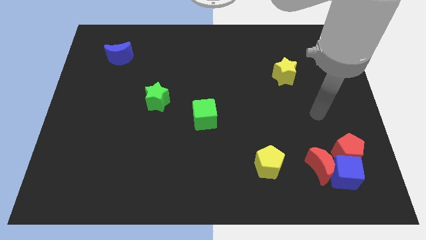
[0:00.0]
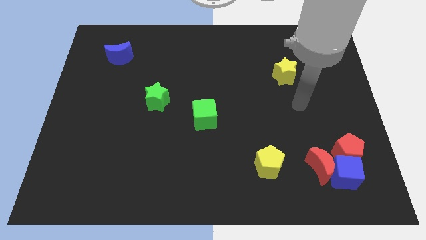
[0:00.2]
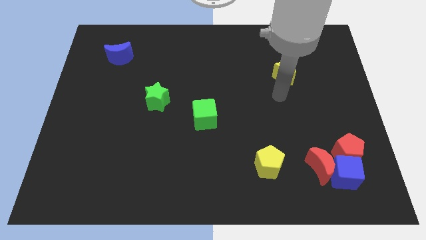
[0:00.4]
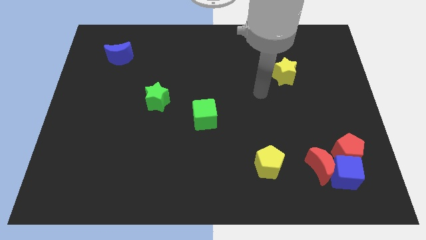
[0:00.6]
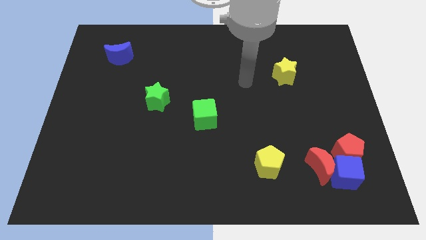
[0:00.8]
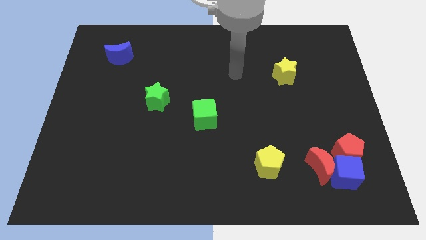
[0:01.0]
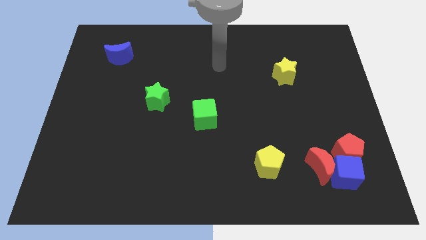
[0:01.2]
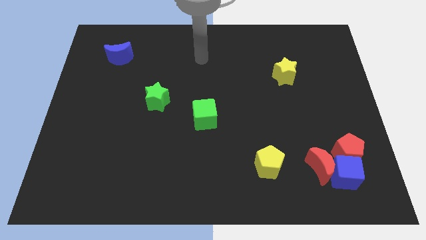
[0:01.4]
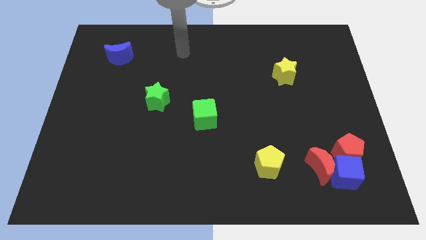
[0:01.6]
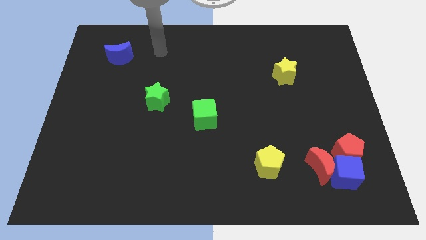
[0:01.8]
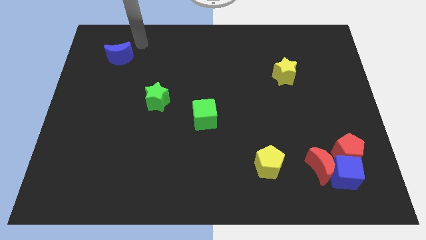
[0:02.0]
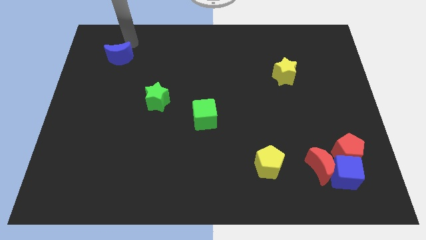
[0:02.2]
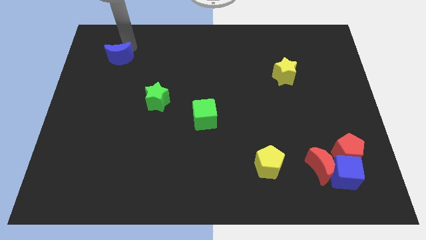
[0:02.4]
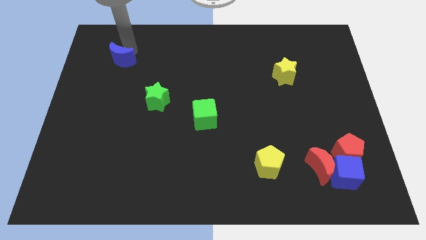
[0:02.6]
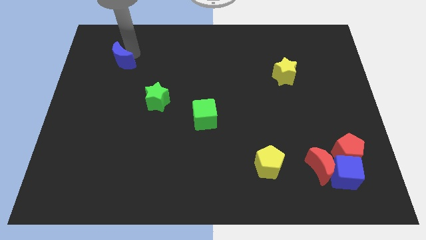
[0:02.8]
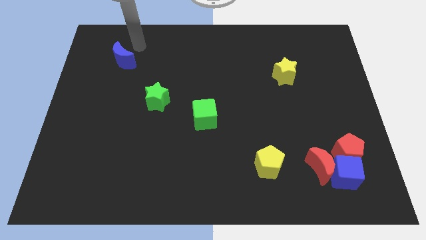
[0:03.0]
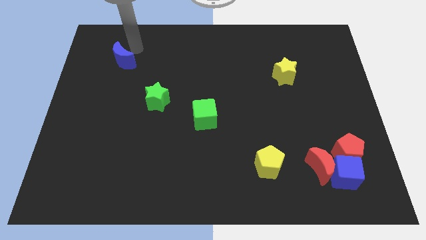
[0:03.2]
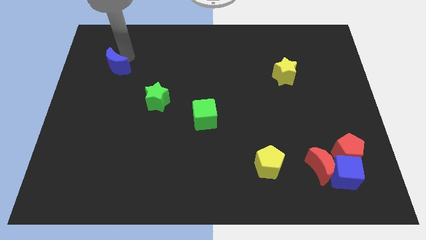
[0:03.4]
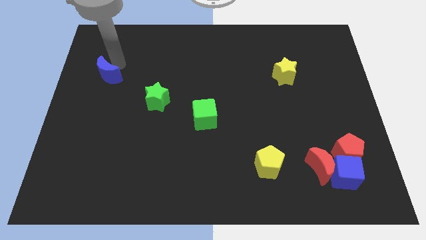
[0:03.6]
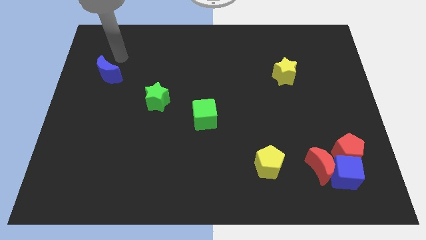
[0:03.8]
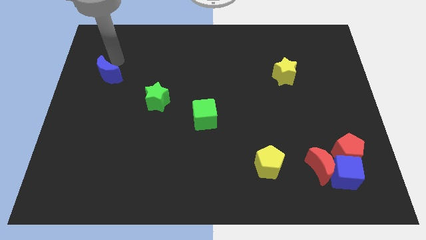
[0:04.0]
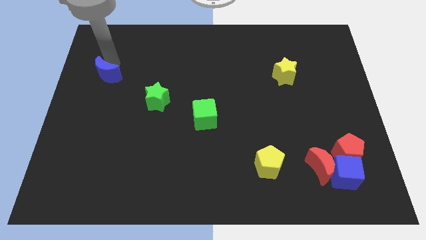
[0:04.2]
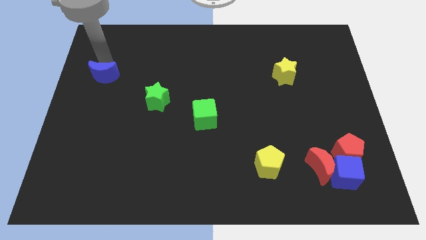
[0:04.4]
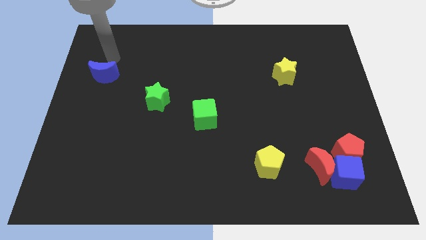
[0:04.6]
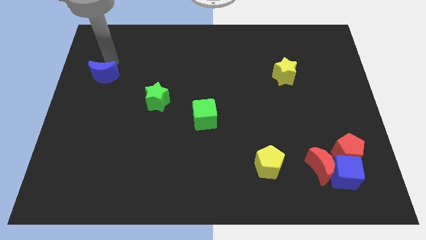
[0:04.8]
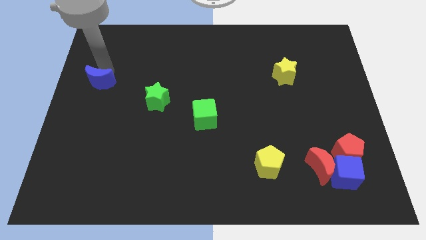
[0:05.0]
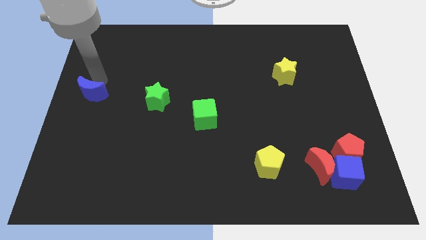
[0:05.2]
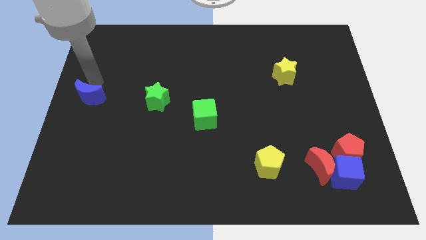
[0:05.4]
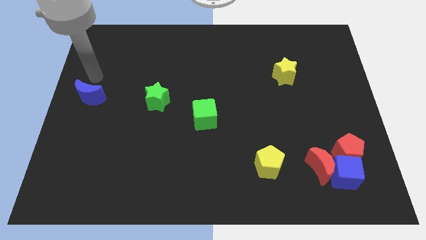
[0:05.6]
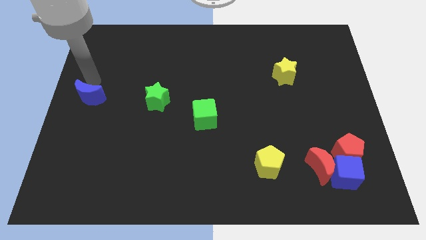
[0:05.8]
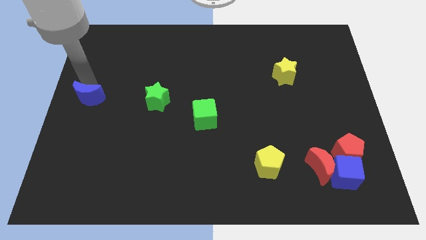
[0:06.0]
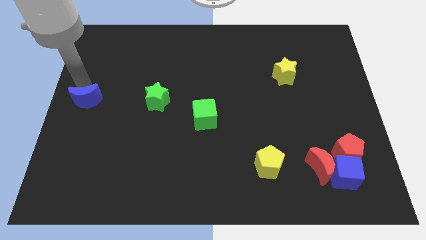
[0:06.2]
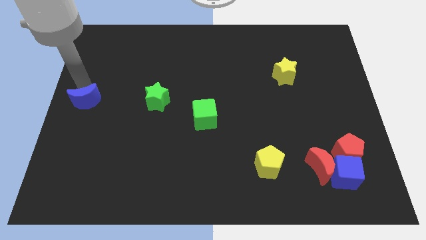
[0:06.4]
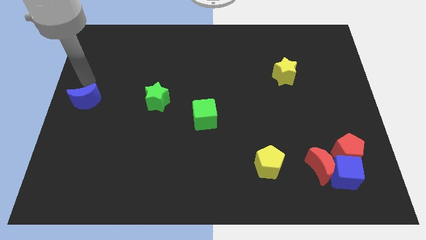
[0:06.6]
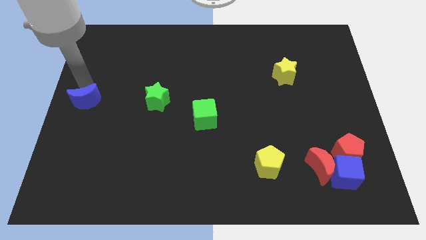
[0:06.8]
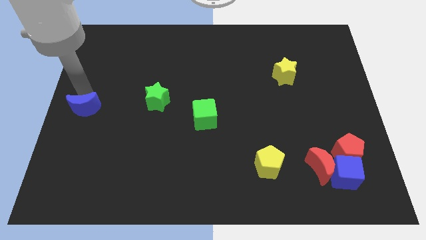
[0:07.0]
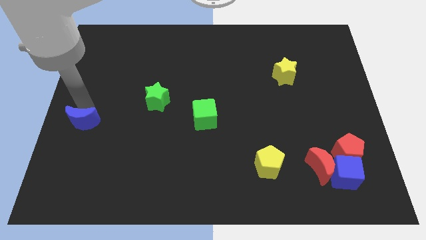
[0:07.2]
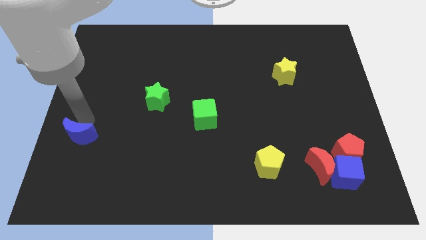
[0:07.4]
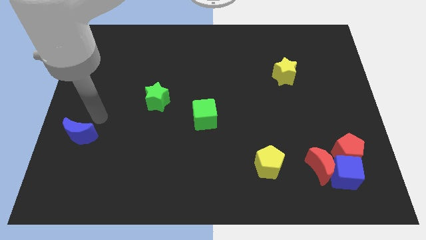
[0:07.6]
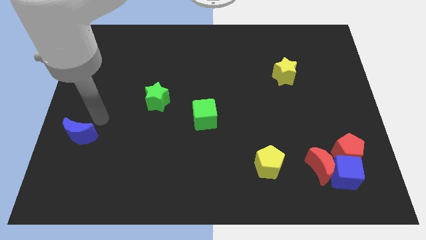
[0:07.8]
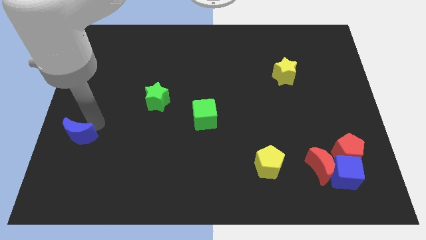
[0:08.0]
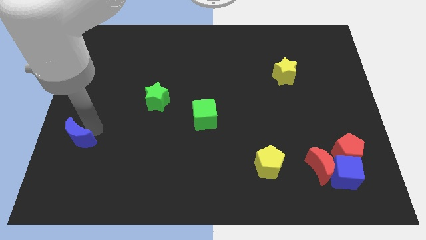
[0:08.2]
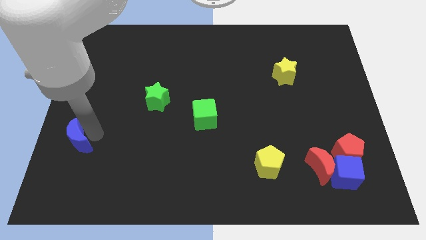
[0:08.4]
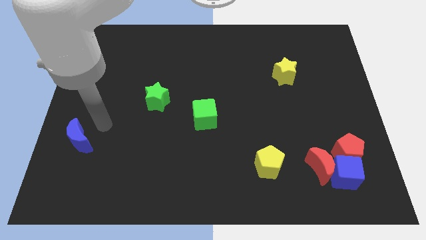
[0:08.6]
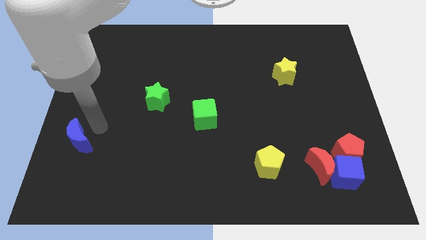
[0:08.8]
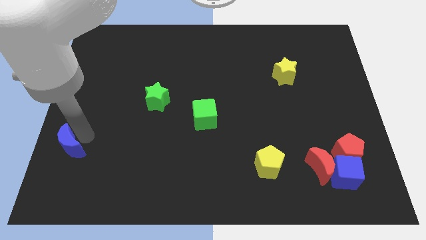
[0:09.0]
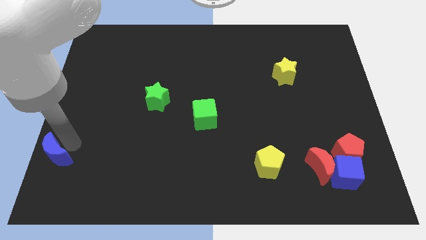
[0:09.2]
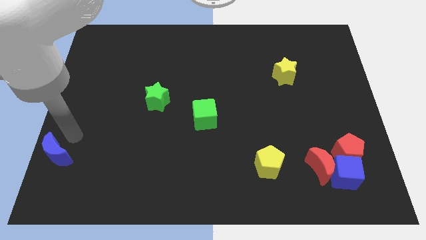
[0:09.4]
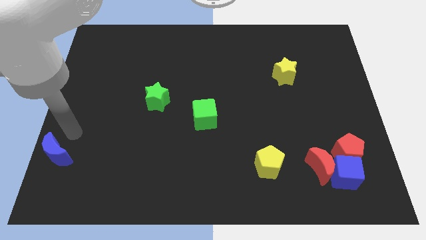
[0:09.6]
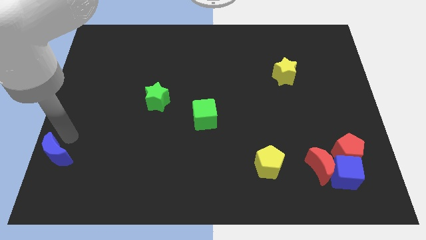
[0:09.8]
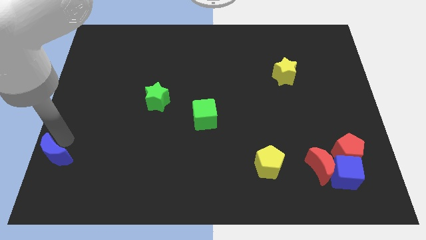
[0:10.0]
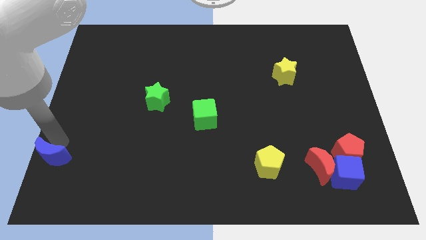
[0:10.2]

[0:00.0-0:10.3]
push the blue moon to the lower left corner
